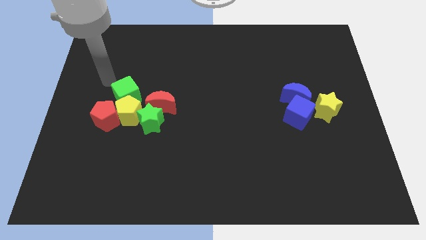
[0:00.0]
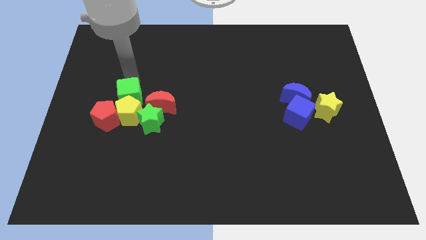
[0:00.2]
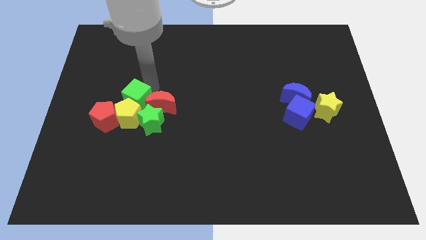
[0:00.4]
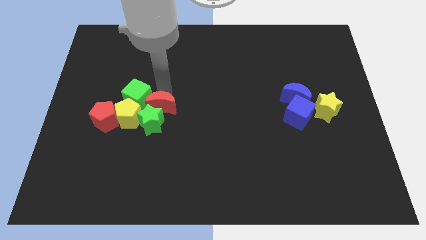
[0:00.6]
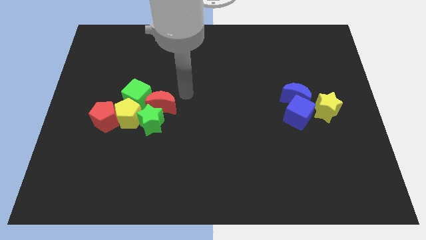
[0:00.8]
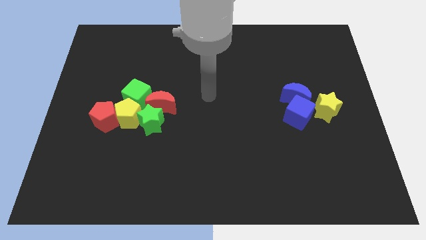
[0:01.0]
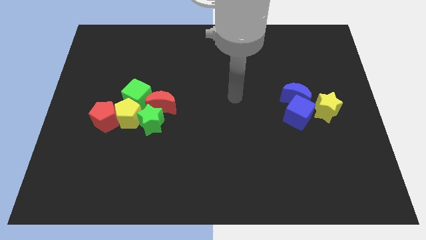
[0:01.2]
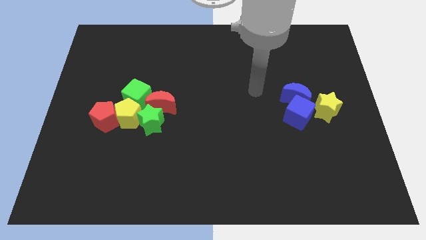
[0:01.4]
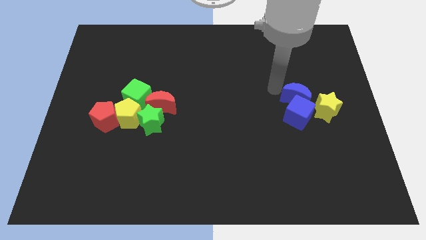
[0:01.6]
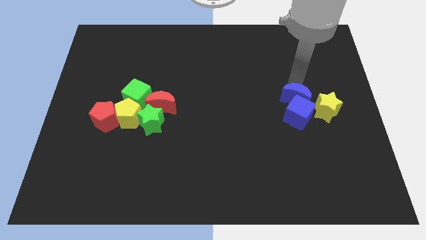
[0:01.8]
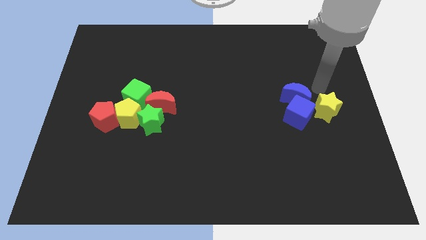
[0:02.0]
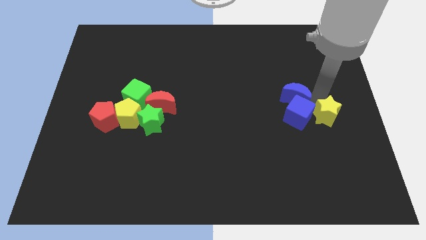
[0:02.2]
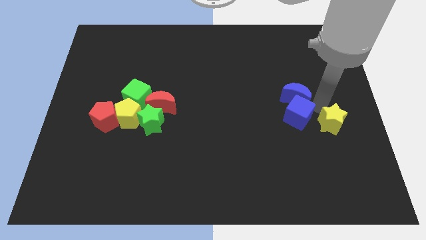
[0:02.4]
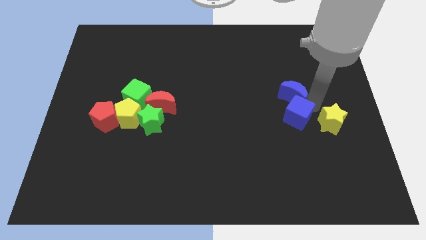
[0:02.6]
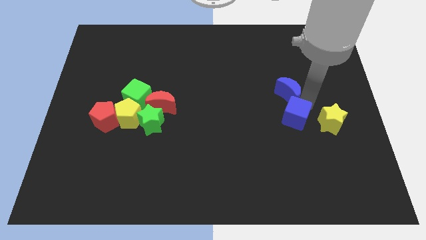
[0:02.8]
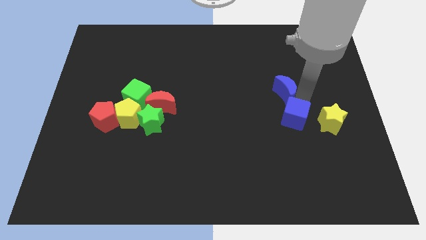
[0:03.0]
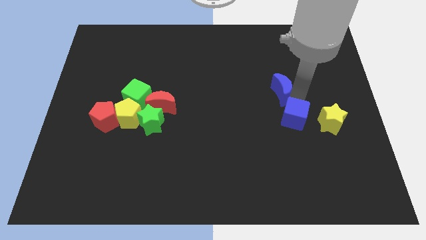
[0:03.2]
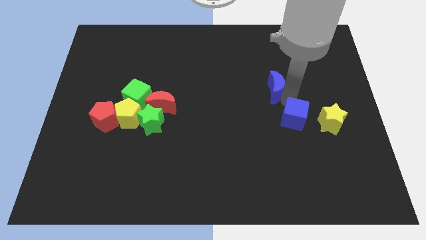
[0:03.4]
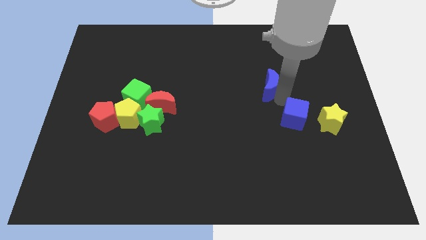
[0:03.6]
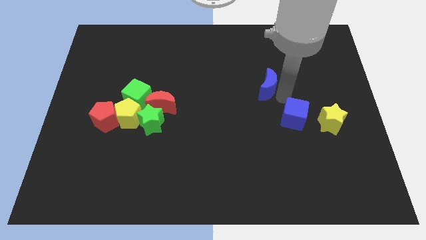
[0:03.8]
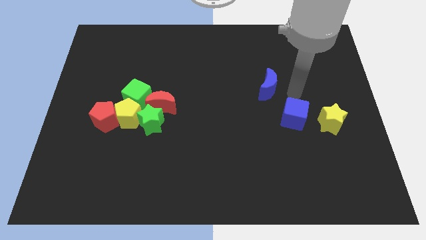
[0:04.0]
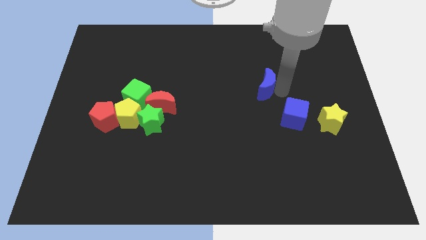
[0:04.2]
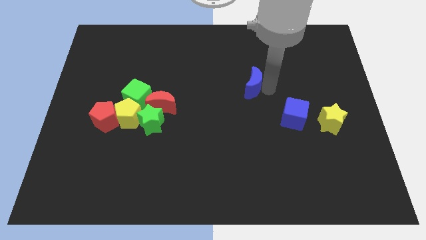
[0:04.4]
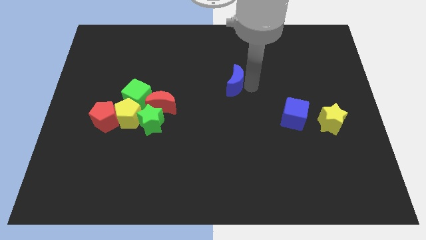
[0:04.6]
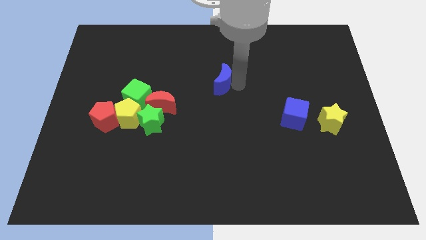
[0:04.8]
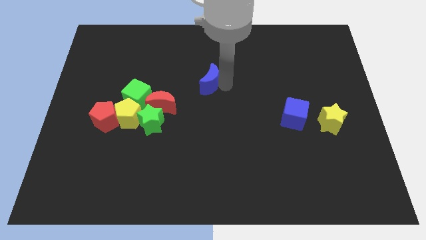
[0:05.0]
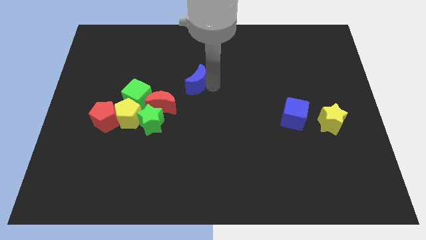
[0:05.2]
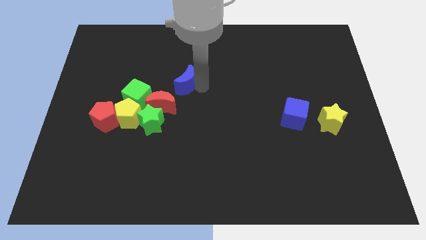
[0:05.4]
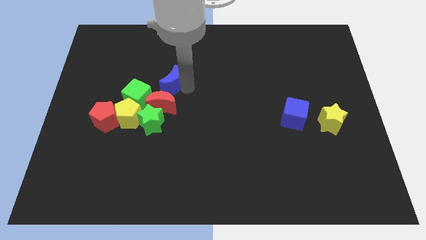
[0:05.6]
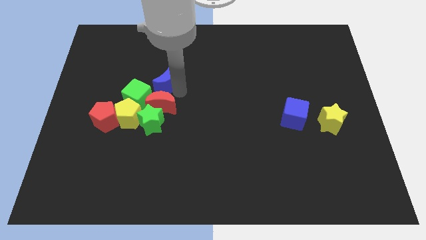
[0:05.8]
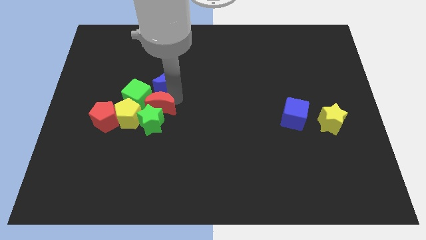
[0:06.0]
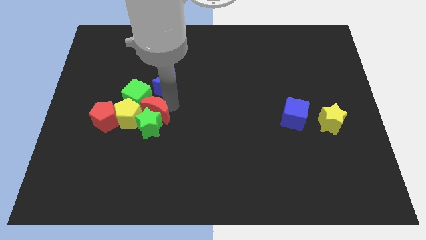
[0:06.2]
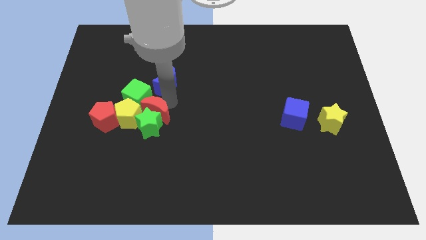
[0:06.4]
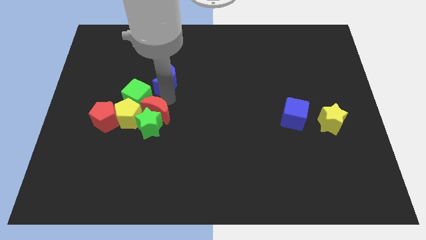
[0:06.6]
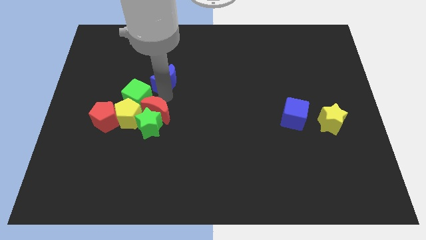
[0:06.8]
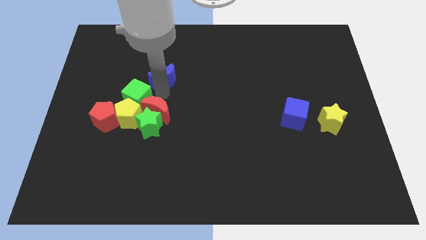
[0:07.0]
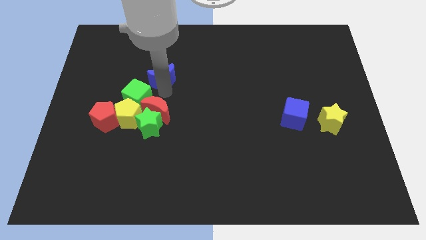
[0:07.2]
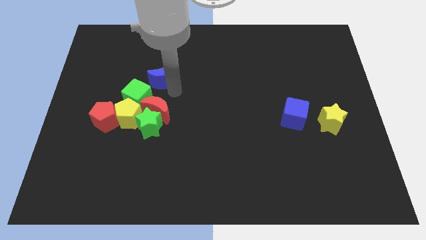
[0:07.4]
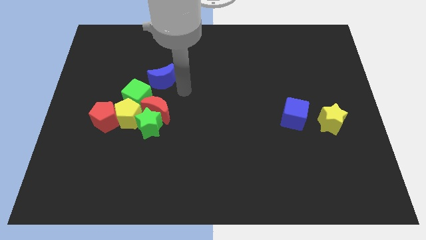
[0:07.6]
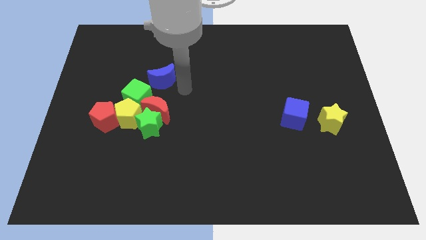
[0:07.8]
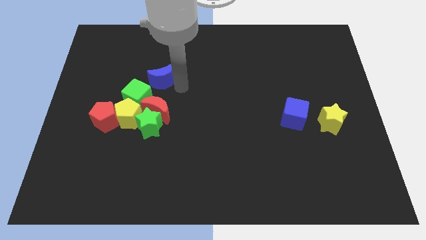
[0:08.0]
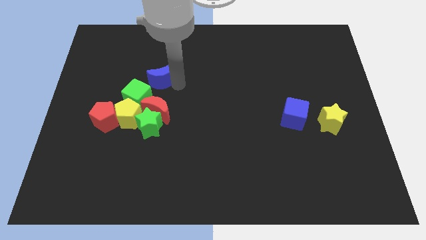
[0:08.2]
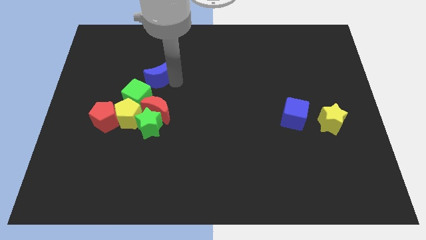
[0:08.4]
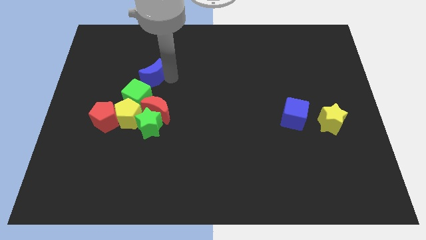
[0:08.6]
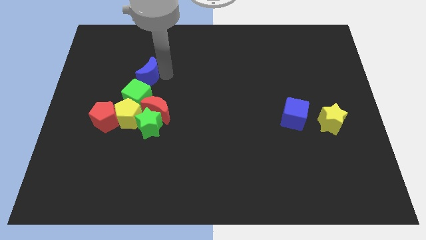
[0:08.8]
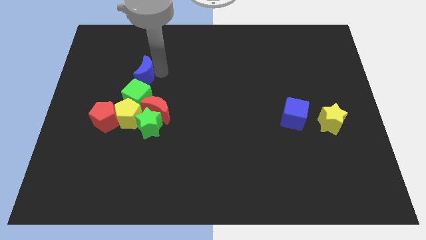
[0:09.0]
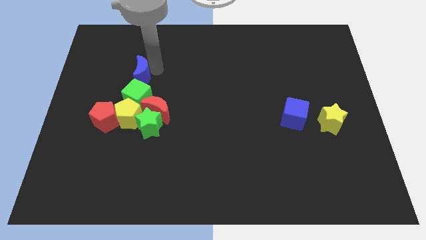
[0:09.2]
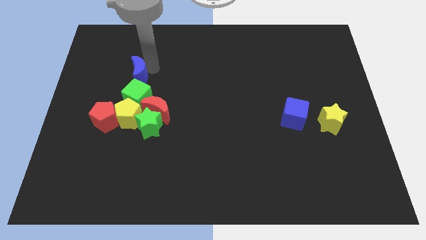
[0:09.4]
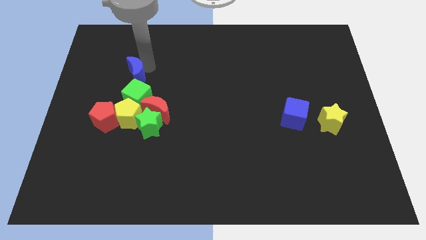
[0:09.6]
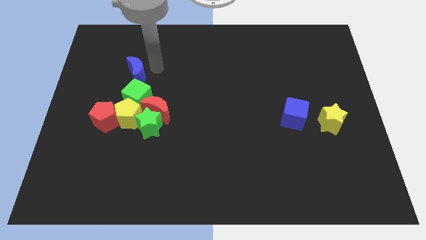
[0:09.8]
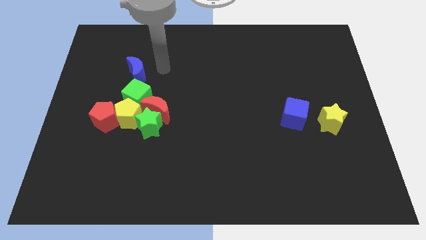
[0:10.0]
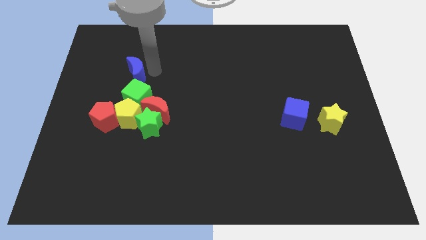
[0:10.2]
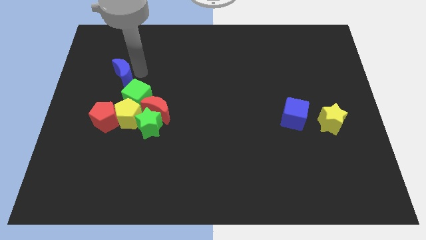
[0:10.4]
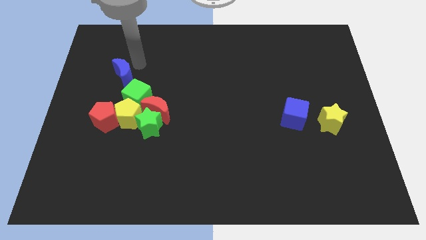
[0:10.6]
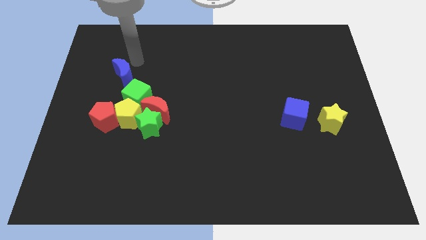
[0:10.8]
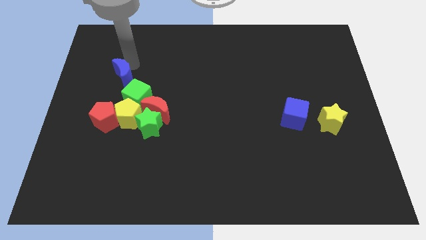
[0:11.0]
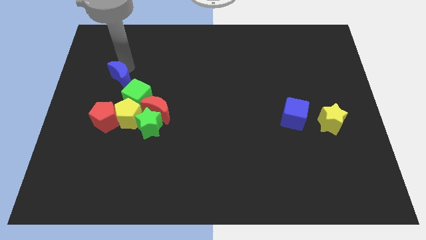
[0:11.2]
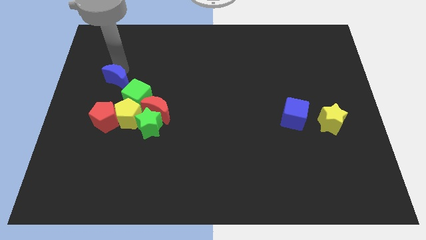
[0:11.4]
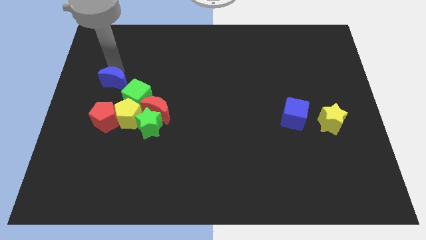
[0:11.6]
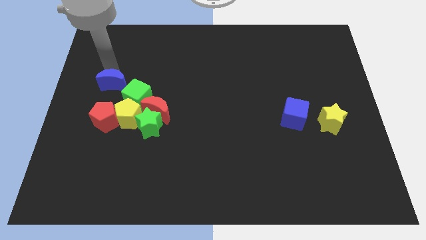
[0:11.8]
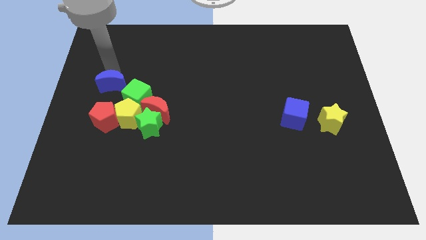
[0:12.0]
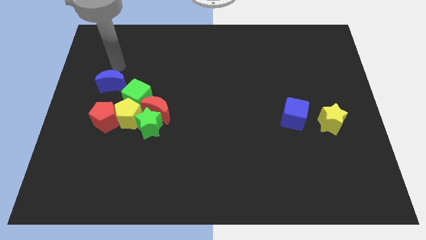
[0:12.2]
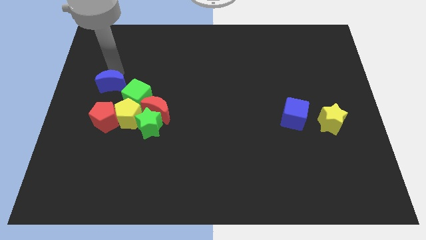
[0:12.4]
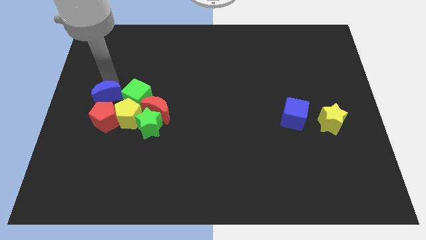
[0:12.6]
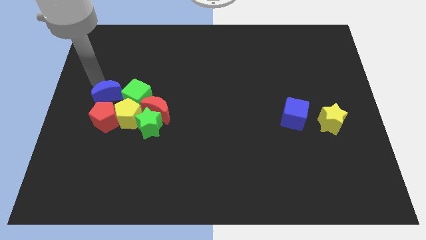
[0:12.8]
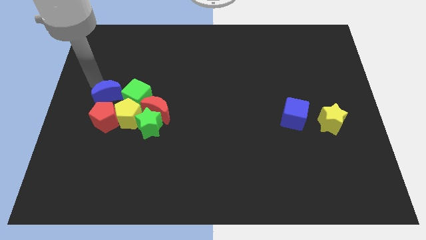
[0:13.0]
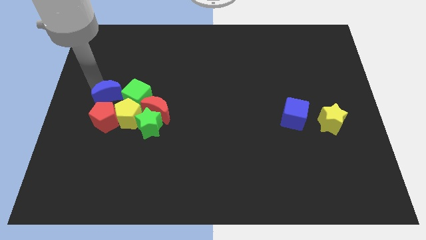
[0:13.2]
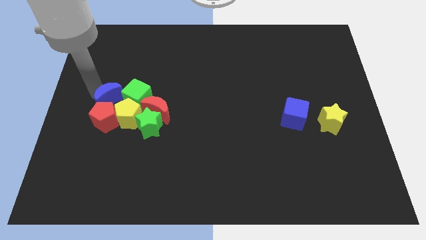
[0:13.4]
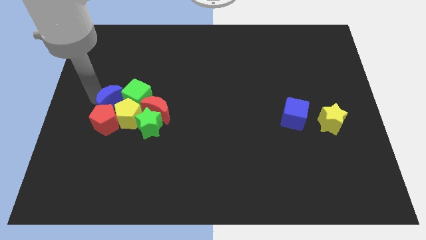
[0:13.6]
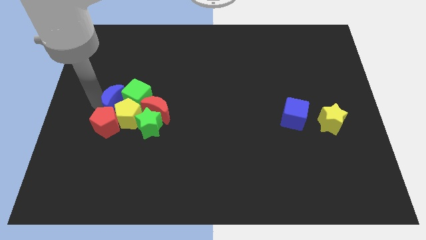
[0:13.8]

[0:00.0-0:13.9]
push the blue moon close to the yellow pentagon

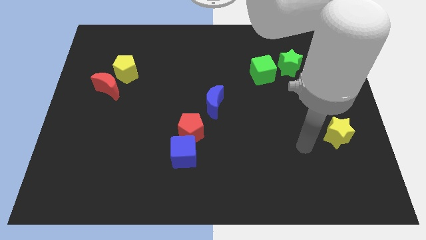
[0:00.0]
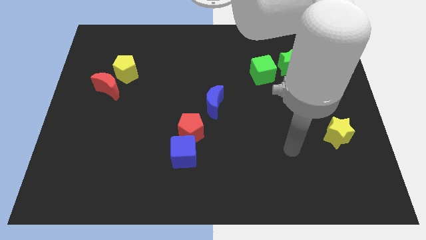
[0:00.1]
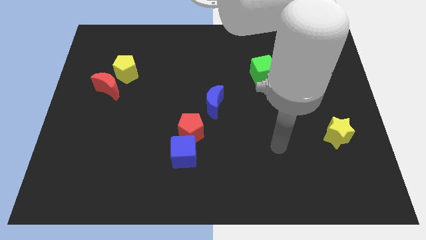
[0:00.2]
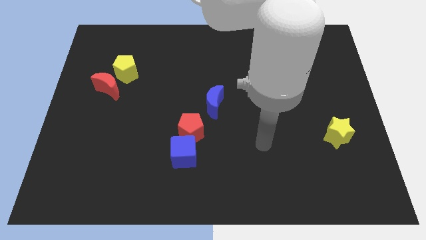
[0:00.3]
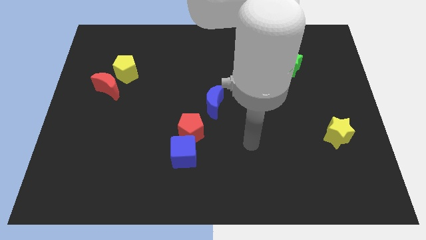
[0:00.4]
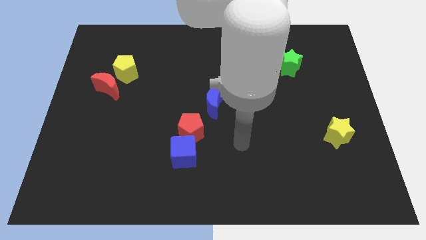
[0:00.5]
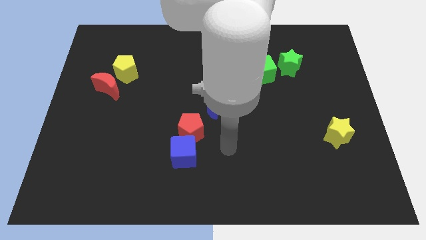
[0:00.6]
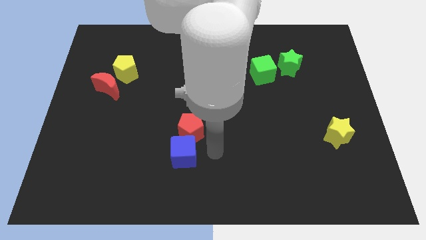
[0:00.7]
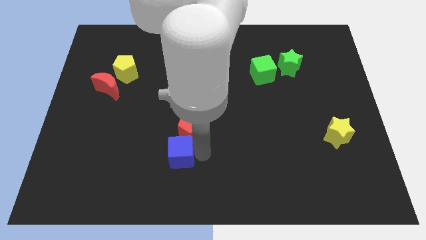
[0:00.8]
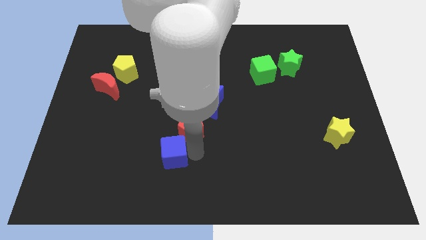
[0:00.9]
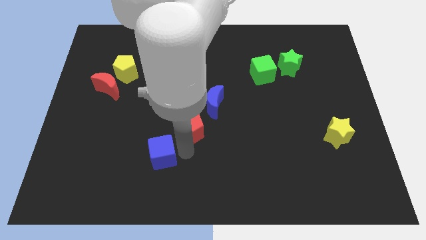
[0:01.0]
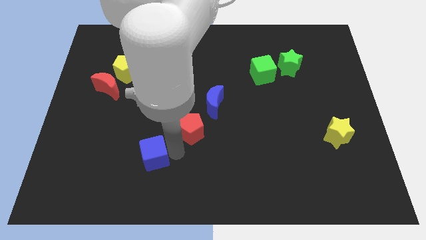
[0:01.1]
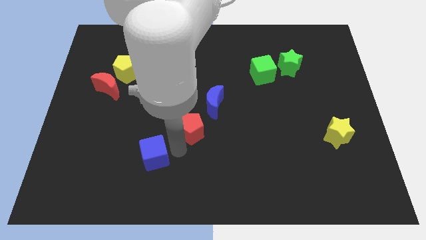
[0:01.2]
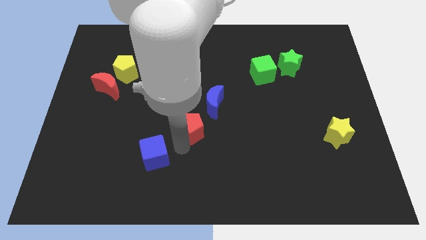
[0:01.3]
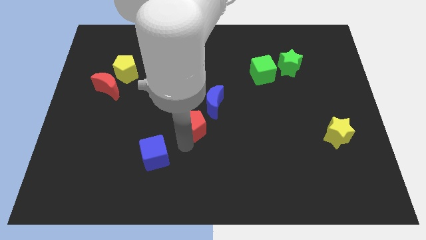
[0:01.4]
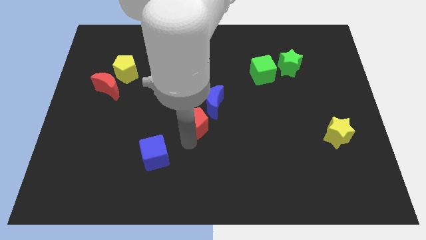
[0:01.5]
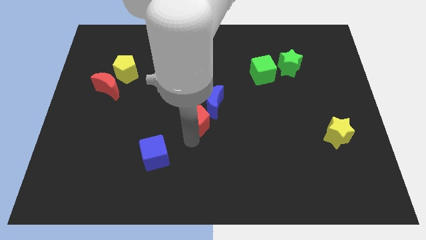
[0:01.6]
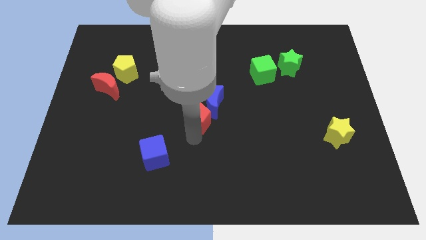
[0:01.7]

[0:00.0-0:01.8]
move the red pentagon to the blue moon
